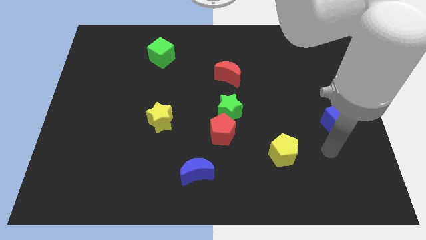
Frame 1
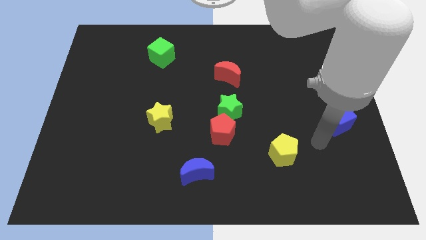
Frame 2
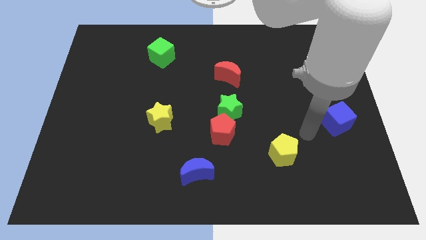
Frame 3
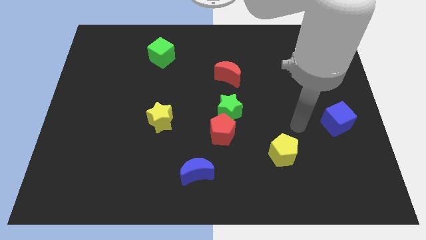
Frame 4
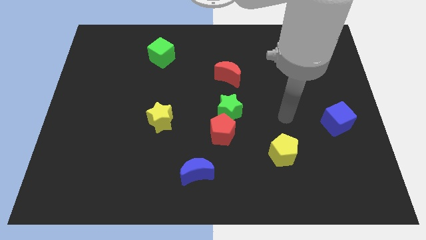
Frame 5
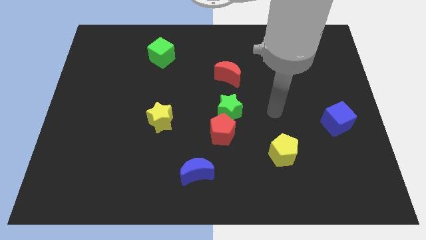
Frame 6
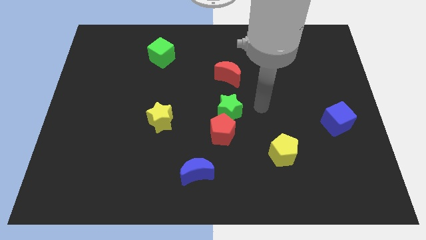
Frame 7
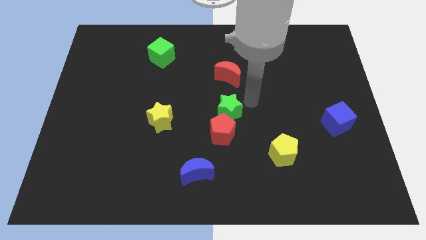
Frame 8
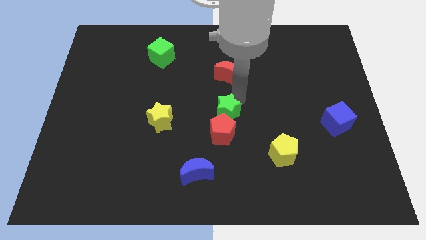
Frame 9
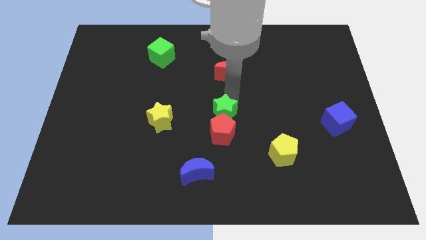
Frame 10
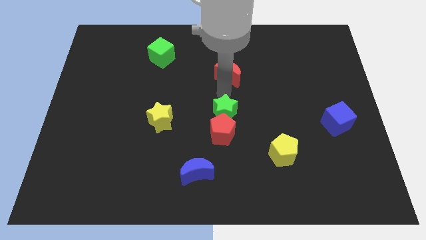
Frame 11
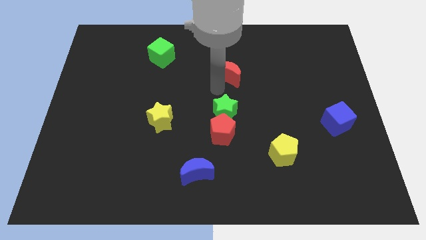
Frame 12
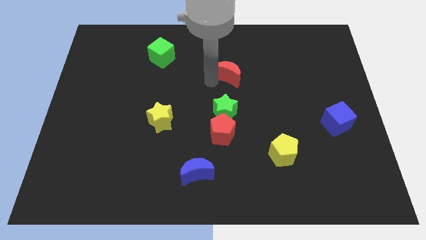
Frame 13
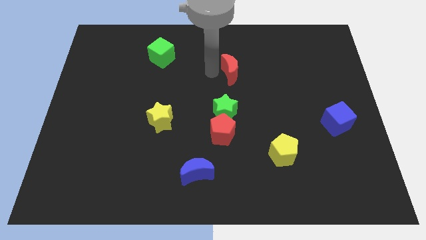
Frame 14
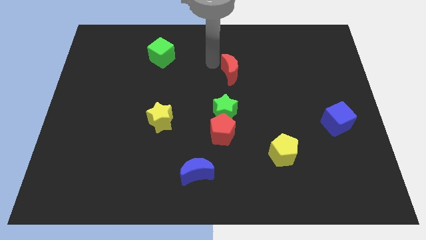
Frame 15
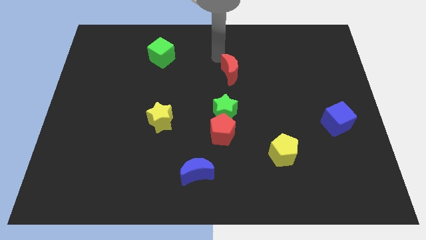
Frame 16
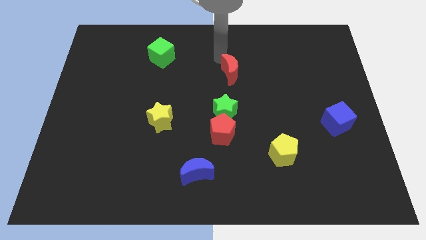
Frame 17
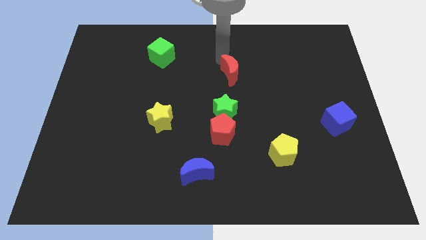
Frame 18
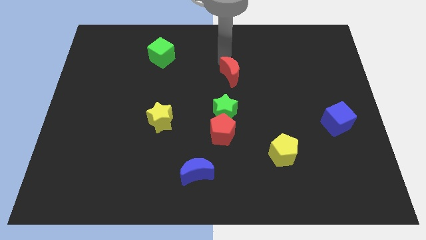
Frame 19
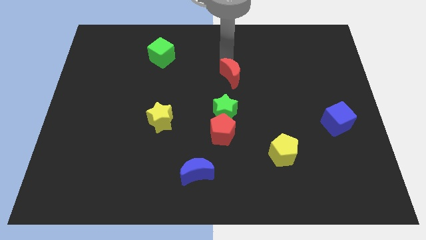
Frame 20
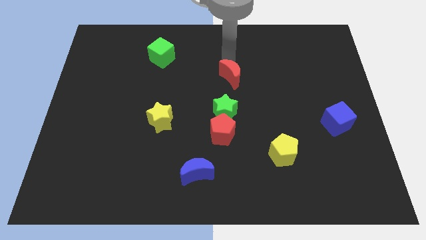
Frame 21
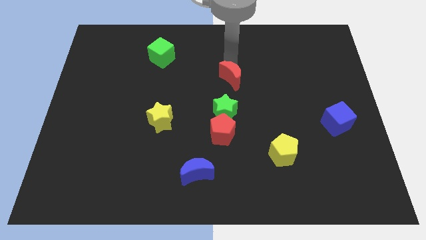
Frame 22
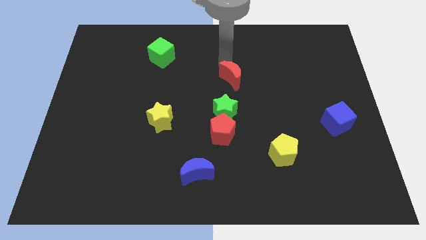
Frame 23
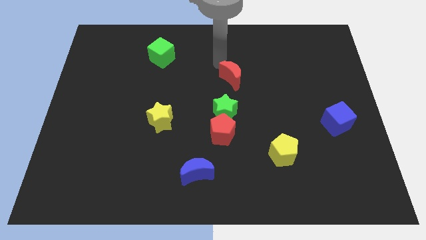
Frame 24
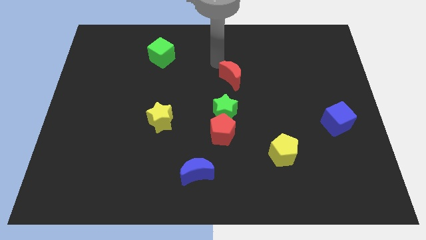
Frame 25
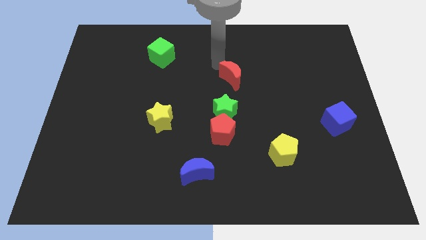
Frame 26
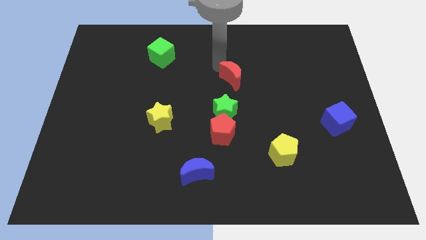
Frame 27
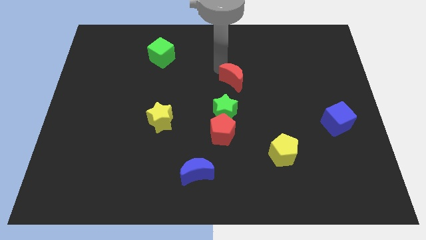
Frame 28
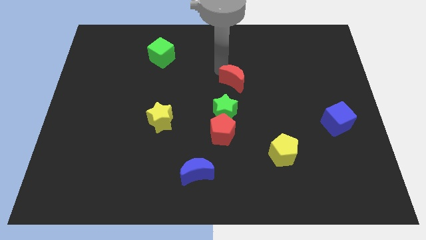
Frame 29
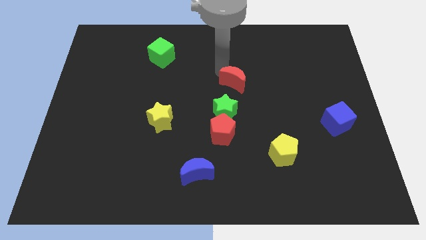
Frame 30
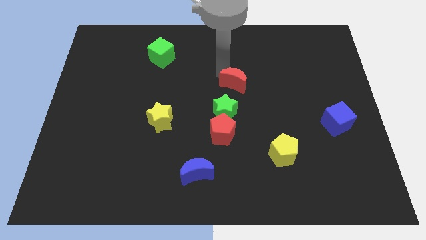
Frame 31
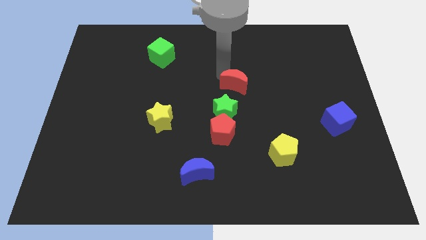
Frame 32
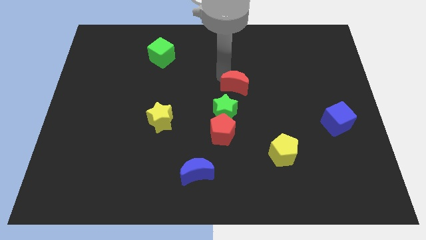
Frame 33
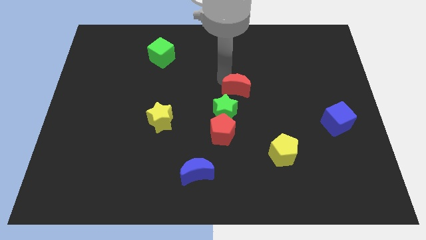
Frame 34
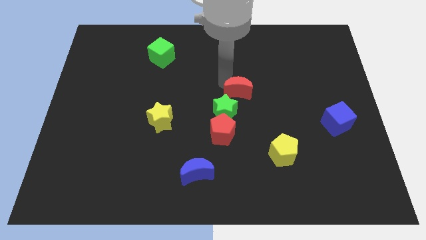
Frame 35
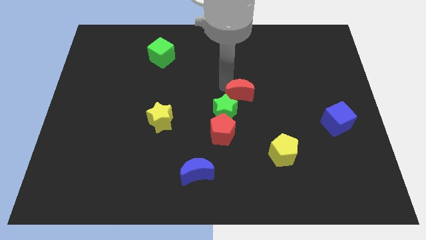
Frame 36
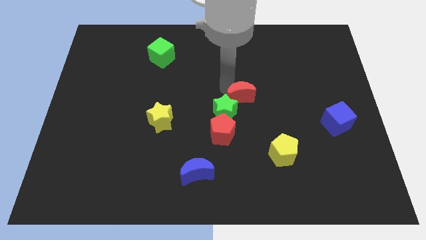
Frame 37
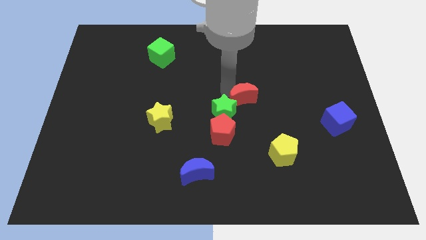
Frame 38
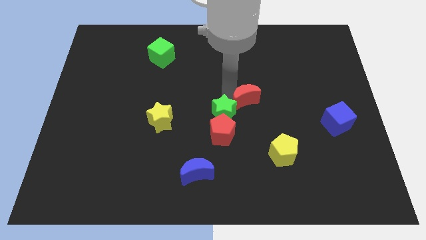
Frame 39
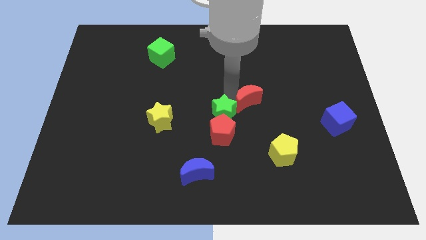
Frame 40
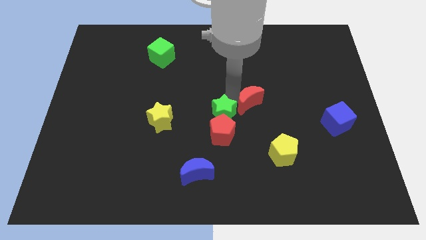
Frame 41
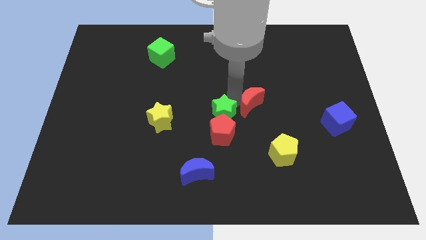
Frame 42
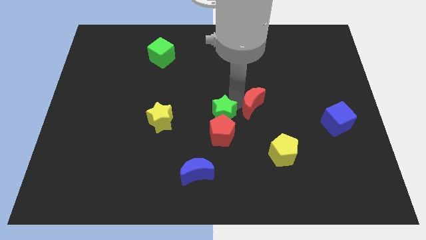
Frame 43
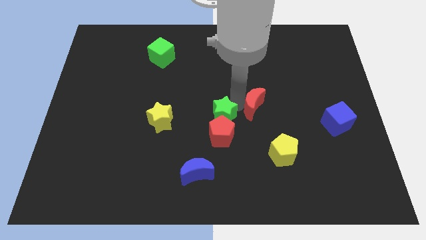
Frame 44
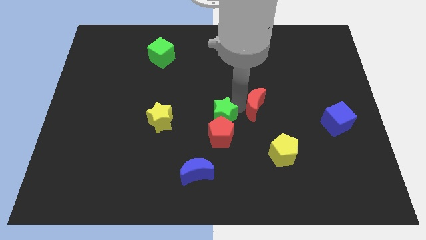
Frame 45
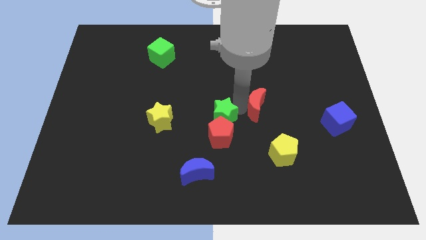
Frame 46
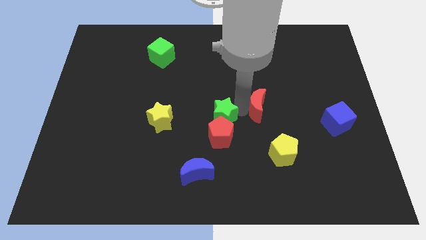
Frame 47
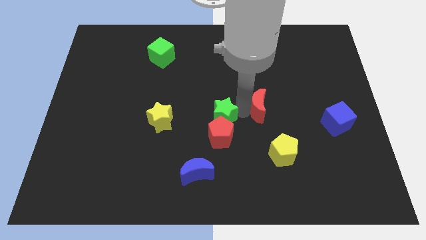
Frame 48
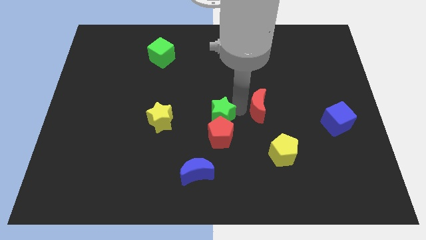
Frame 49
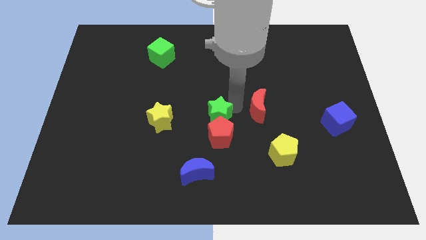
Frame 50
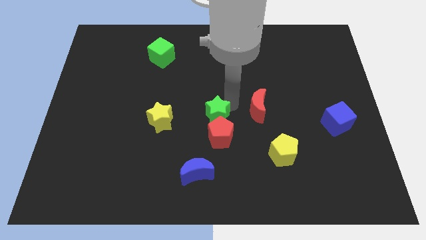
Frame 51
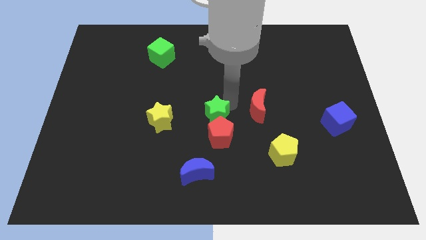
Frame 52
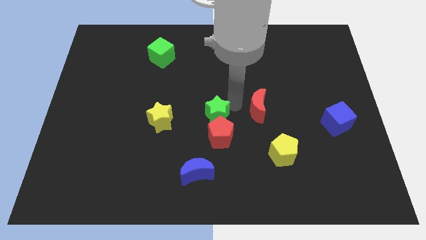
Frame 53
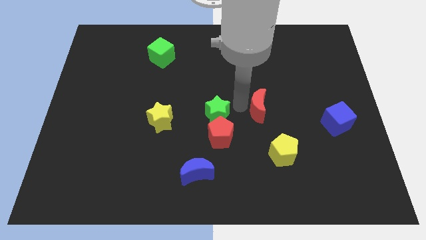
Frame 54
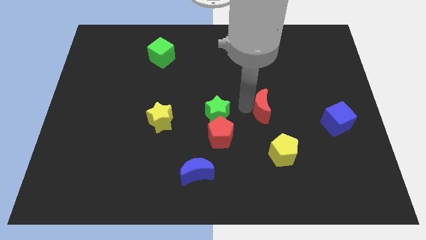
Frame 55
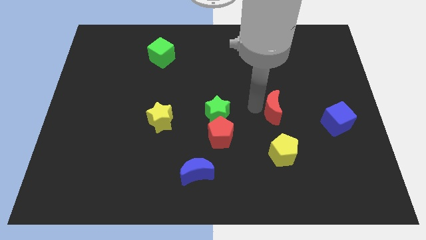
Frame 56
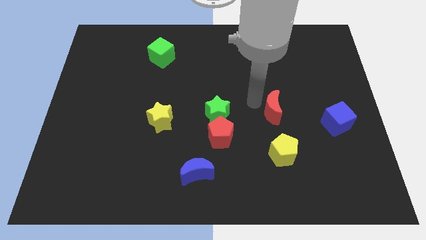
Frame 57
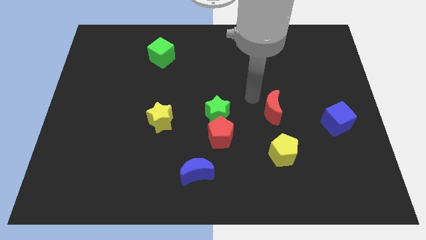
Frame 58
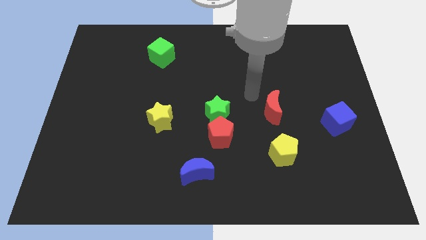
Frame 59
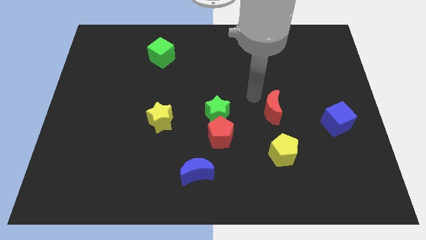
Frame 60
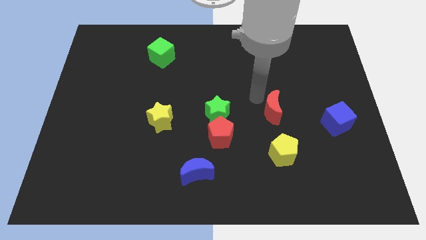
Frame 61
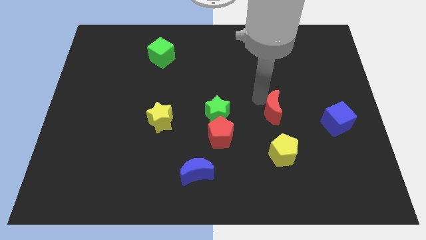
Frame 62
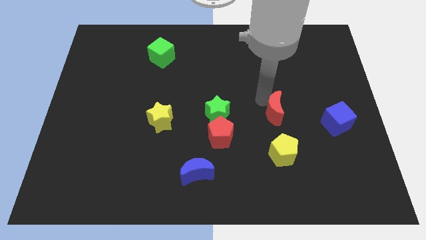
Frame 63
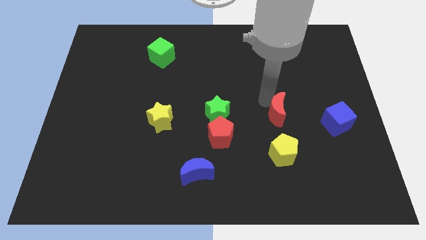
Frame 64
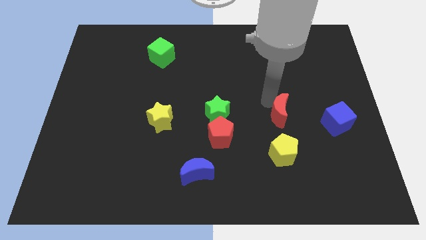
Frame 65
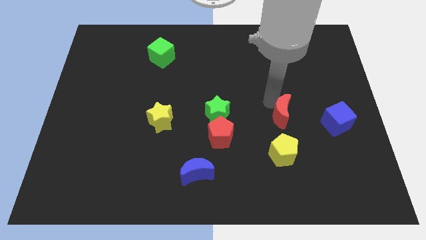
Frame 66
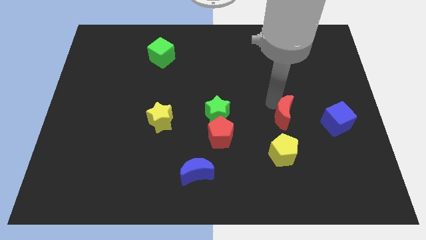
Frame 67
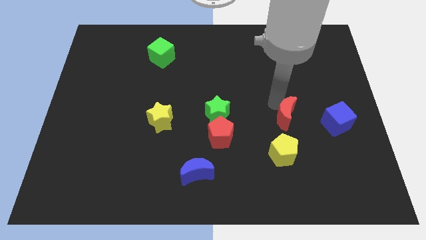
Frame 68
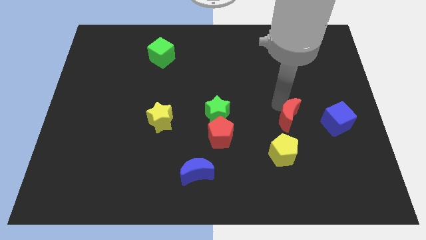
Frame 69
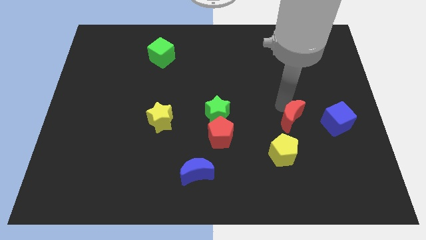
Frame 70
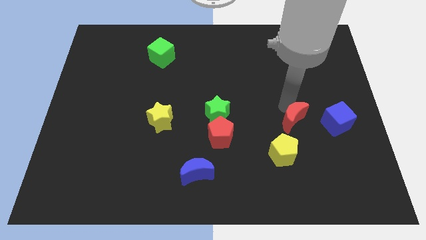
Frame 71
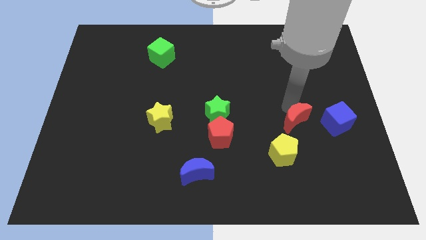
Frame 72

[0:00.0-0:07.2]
push the red moon downwards and to the right diagonally

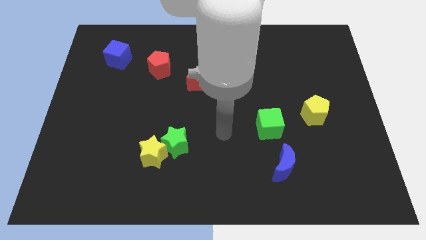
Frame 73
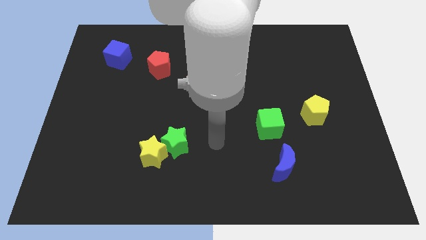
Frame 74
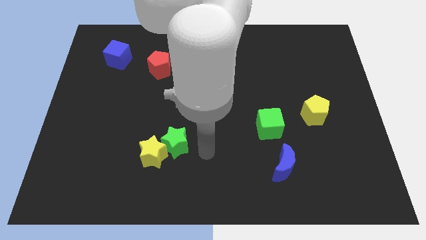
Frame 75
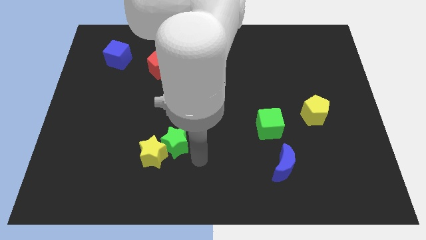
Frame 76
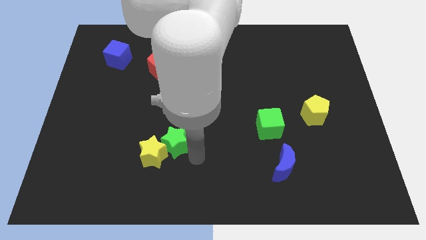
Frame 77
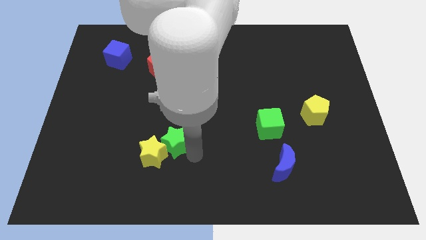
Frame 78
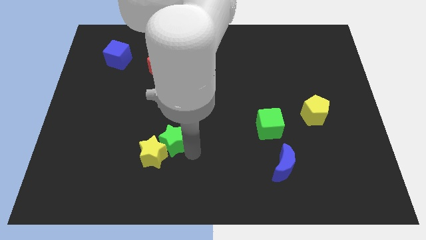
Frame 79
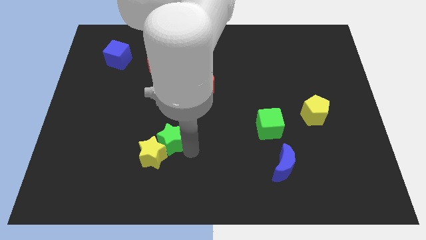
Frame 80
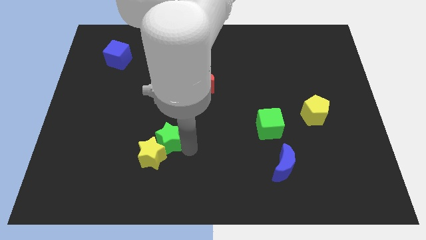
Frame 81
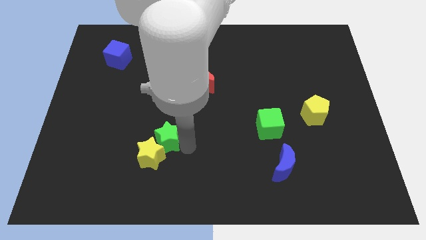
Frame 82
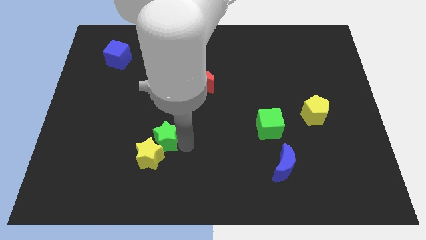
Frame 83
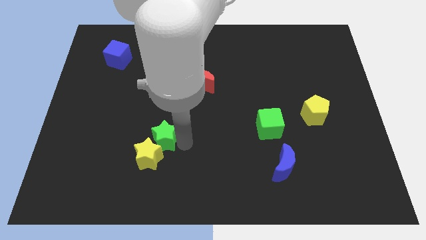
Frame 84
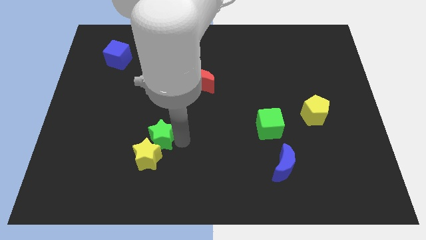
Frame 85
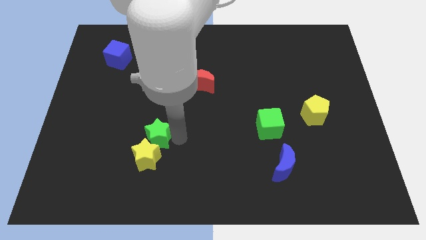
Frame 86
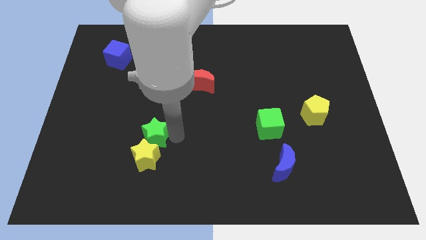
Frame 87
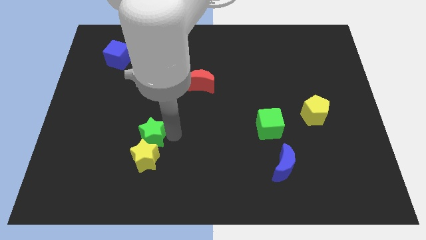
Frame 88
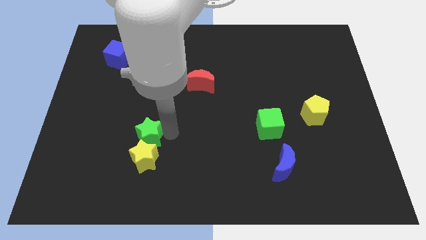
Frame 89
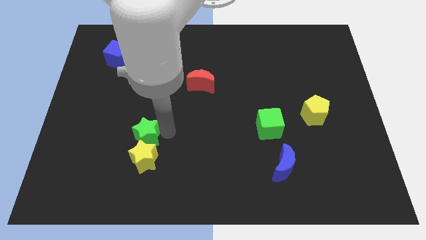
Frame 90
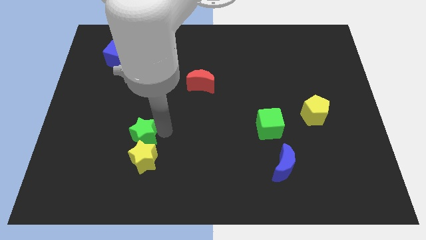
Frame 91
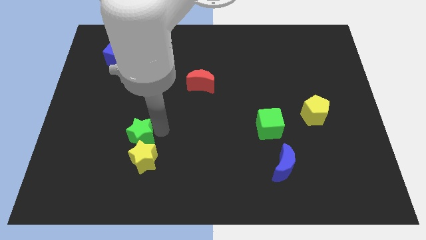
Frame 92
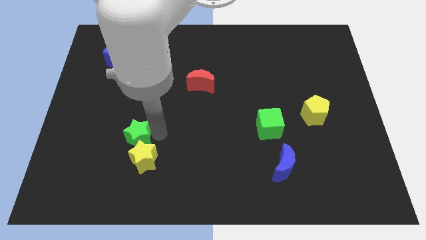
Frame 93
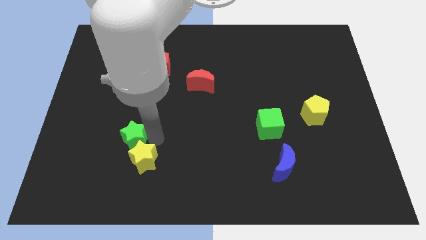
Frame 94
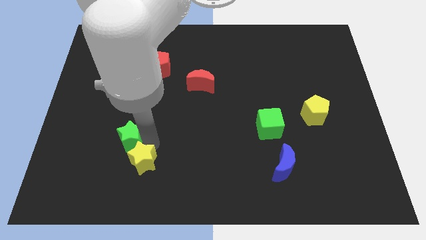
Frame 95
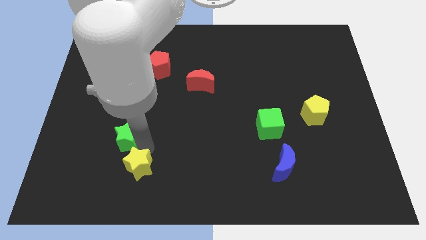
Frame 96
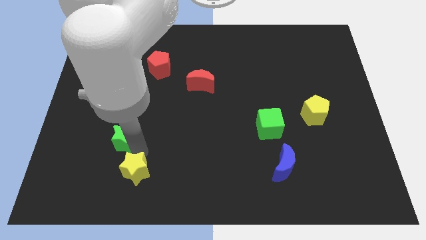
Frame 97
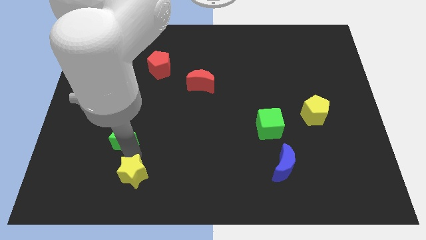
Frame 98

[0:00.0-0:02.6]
slide the green star diagonally upwards and left slightly
